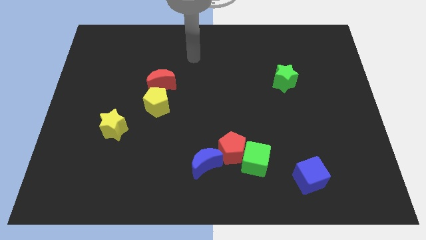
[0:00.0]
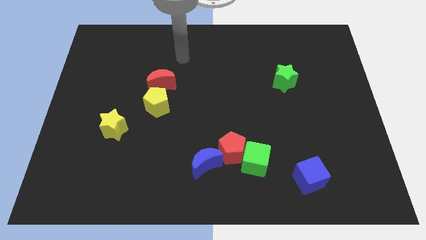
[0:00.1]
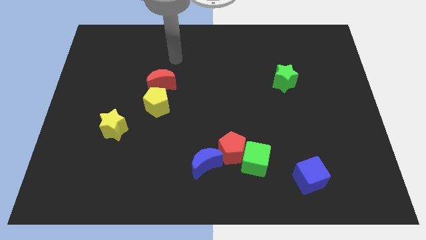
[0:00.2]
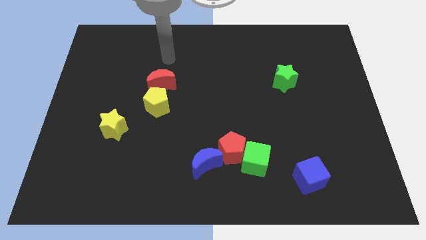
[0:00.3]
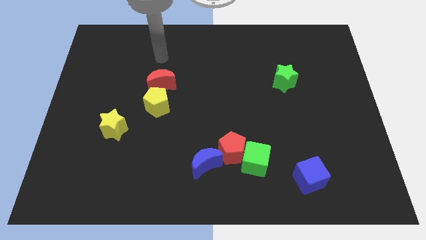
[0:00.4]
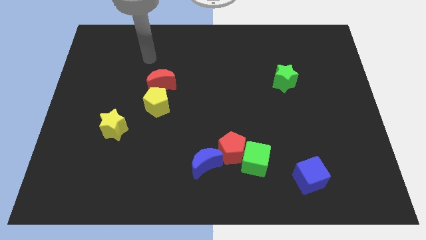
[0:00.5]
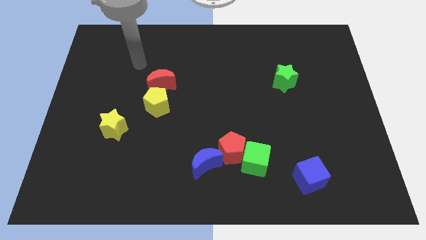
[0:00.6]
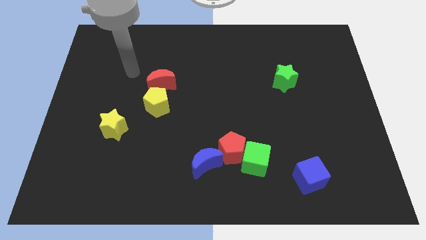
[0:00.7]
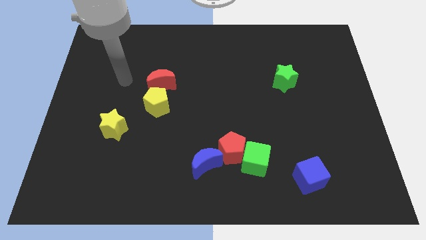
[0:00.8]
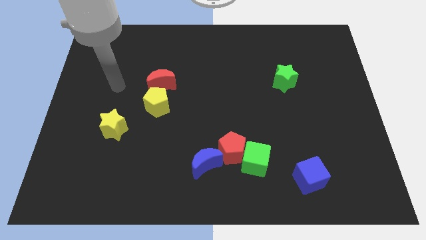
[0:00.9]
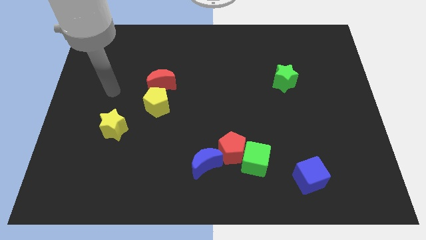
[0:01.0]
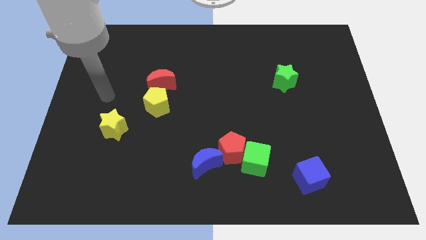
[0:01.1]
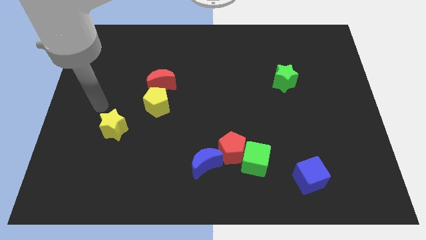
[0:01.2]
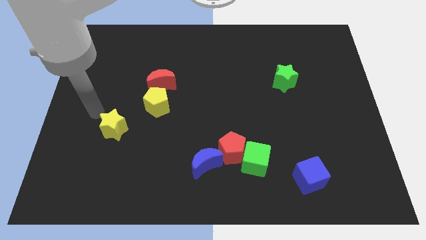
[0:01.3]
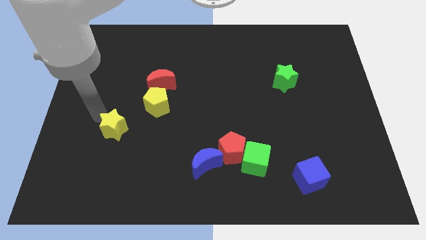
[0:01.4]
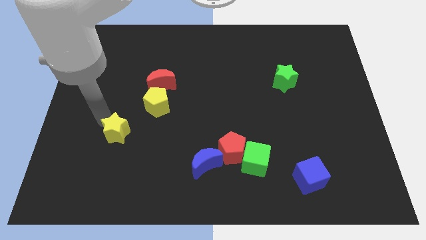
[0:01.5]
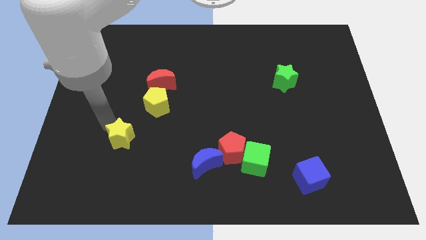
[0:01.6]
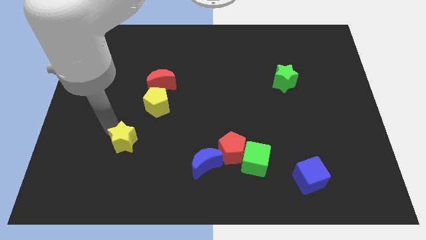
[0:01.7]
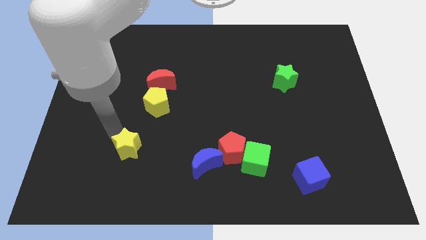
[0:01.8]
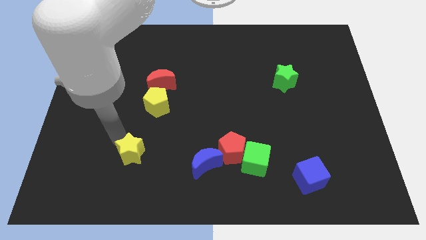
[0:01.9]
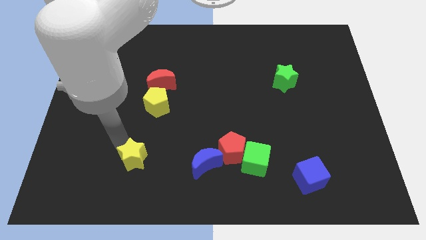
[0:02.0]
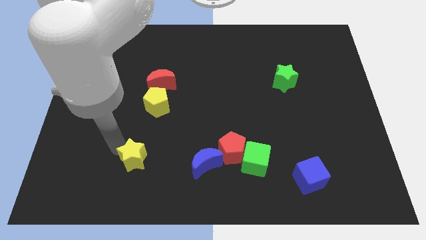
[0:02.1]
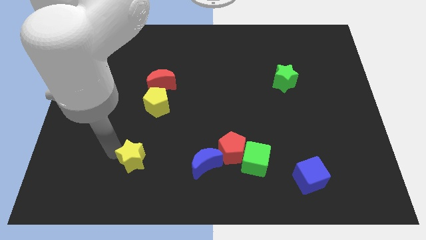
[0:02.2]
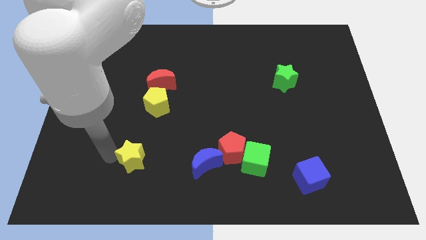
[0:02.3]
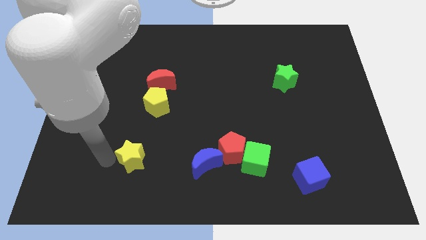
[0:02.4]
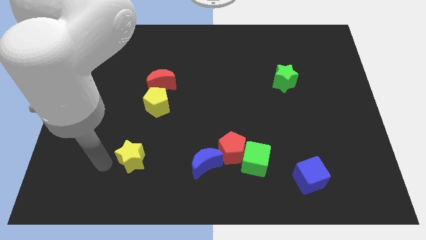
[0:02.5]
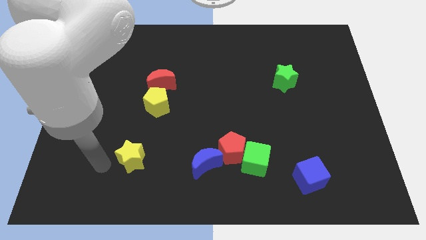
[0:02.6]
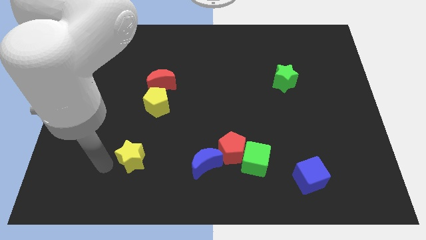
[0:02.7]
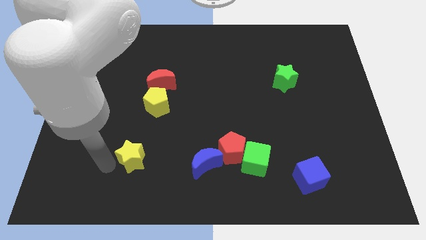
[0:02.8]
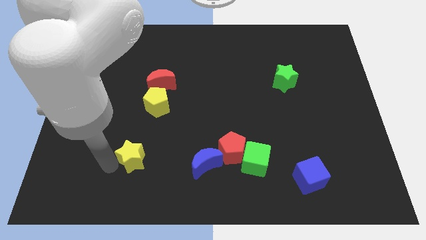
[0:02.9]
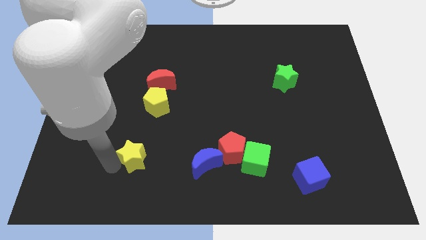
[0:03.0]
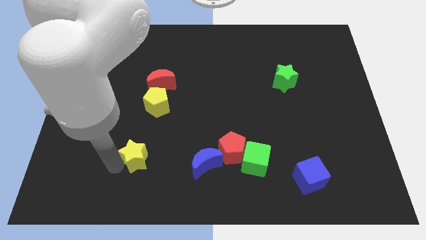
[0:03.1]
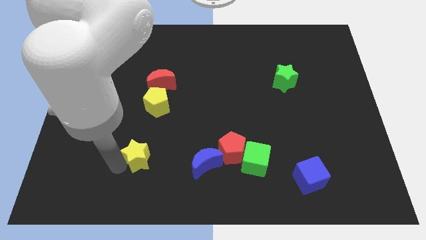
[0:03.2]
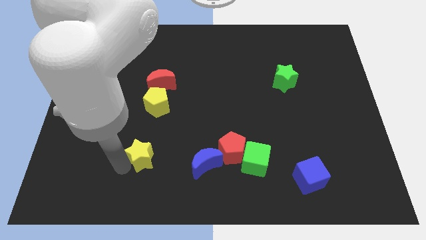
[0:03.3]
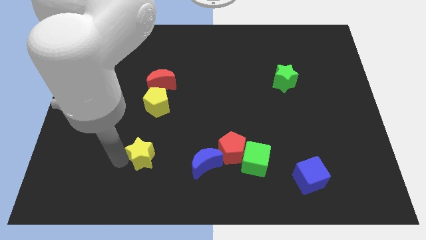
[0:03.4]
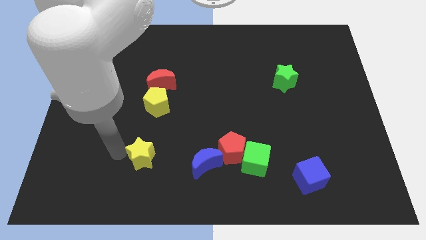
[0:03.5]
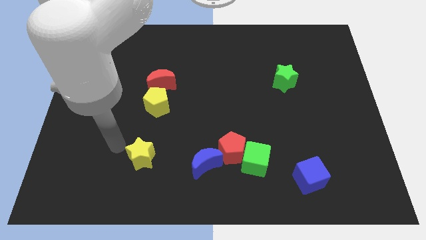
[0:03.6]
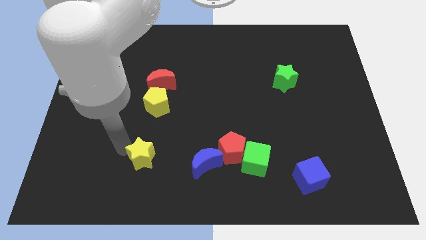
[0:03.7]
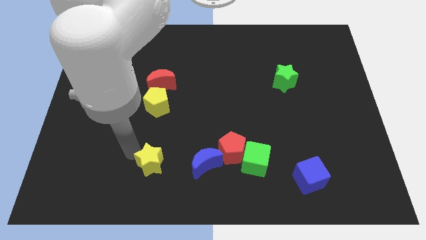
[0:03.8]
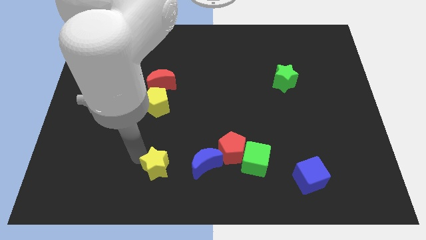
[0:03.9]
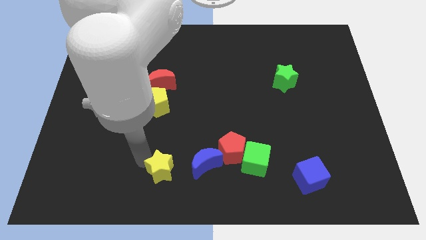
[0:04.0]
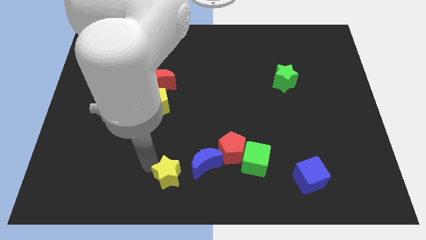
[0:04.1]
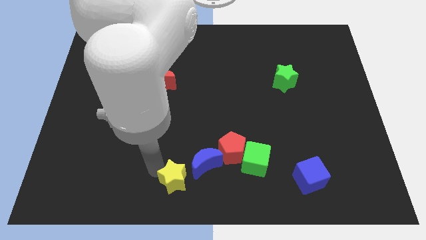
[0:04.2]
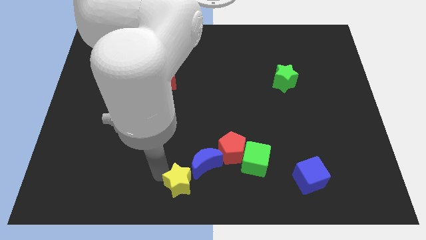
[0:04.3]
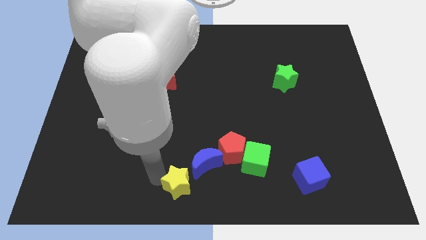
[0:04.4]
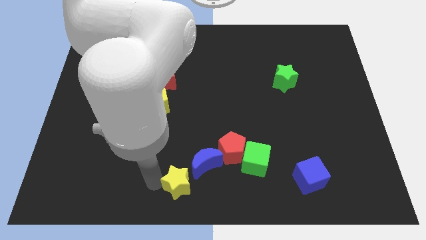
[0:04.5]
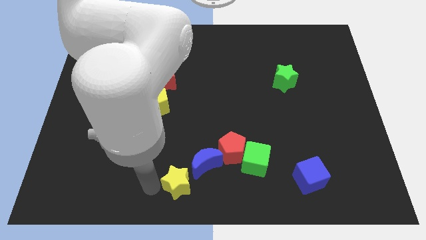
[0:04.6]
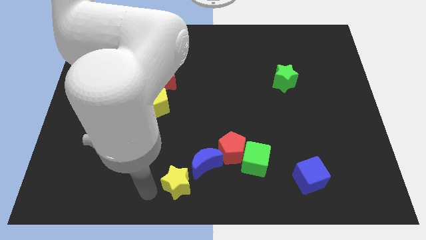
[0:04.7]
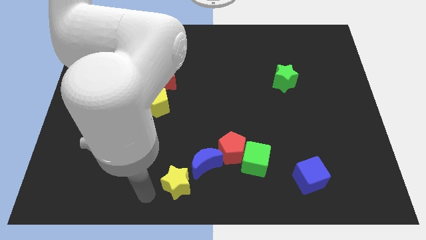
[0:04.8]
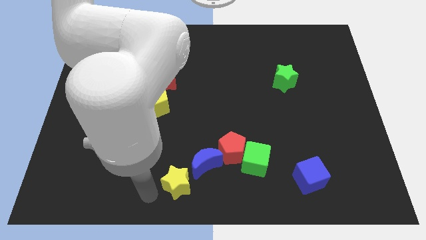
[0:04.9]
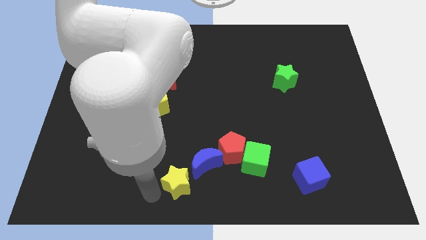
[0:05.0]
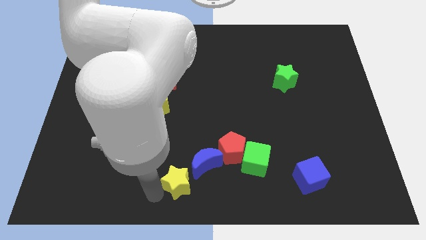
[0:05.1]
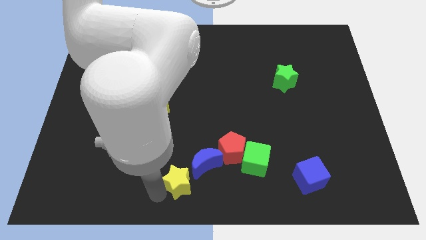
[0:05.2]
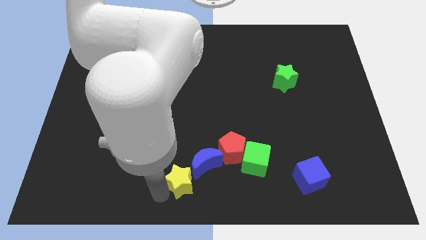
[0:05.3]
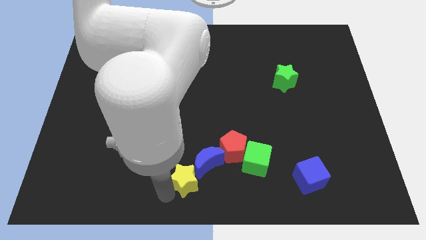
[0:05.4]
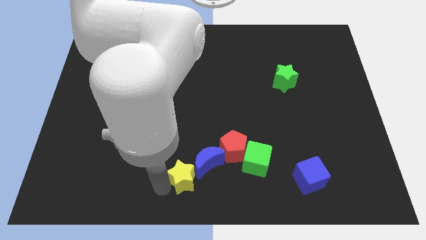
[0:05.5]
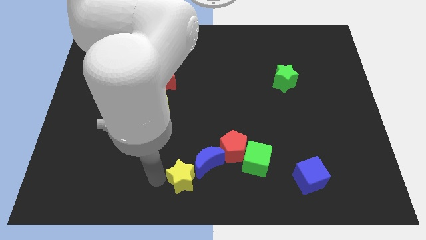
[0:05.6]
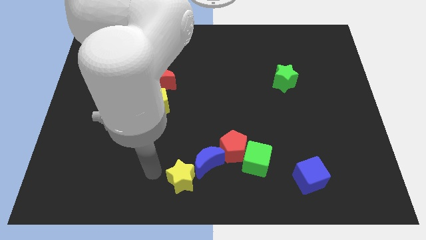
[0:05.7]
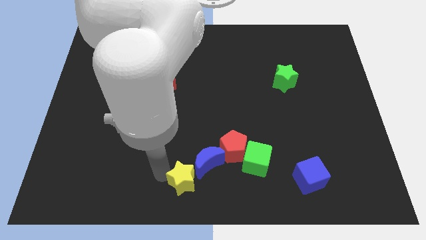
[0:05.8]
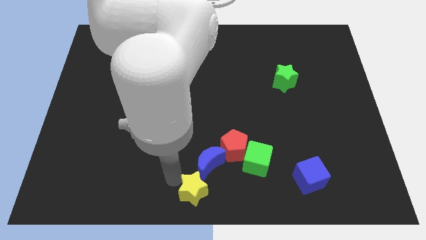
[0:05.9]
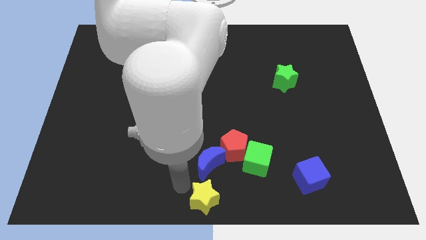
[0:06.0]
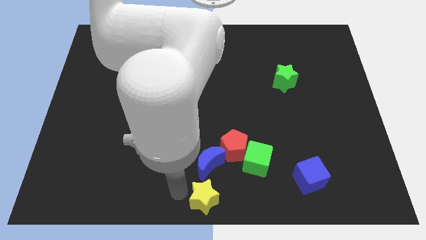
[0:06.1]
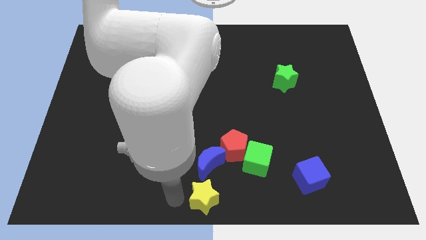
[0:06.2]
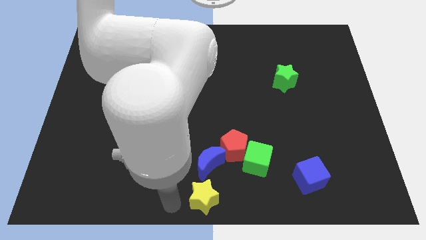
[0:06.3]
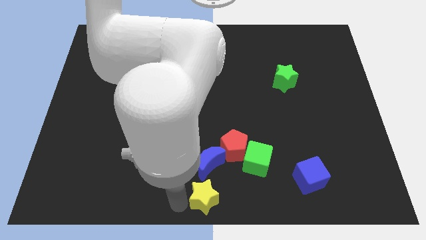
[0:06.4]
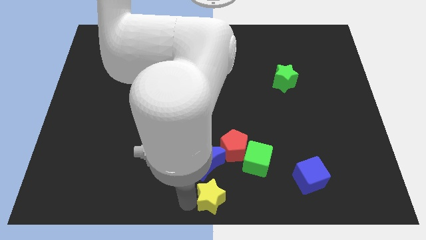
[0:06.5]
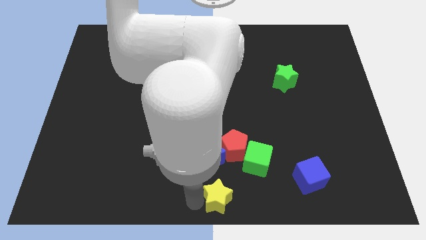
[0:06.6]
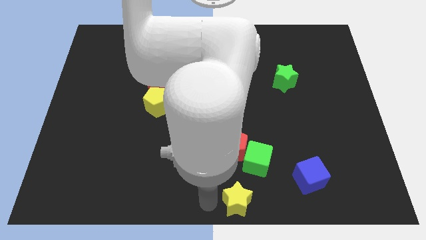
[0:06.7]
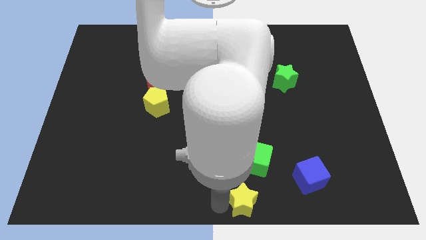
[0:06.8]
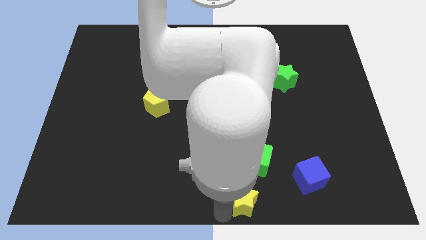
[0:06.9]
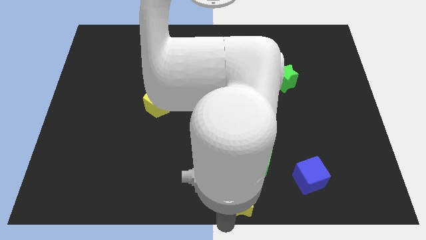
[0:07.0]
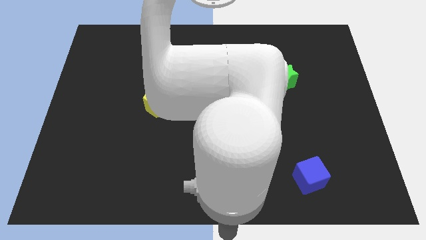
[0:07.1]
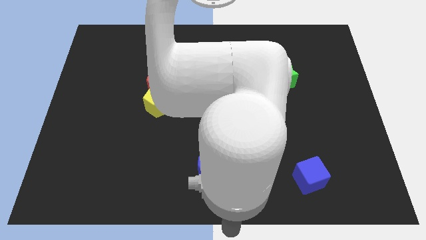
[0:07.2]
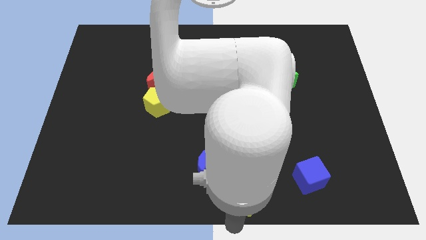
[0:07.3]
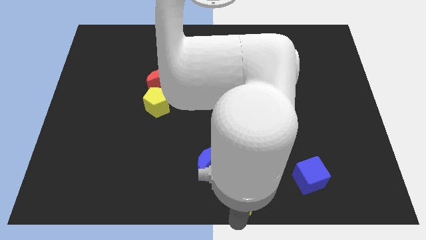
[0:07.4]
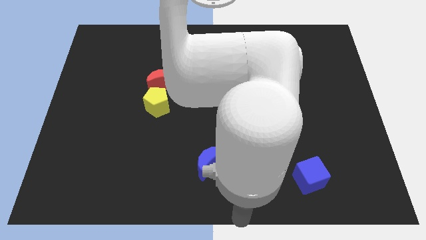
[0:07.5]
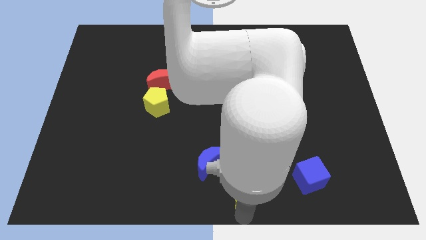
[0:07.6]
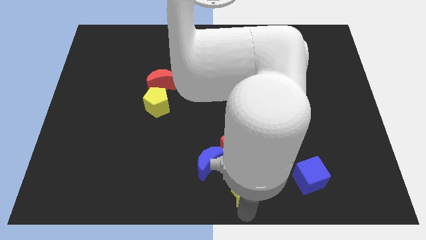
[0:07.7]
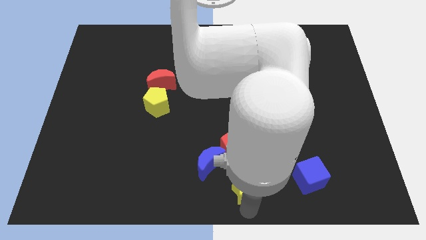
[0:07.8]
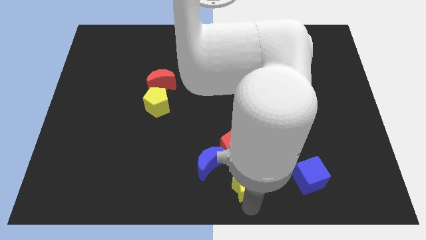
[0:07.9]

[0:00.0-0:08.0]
push the yellow star to the bottom right of the red pentagon

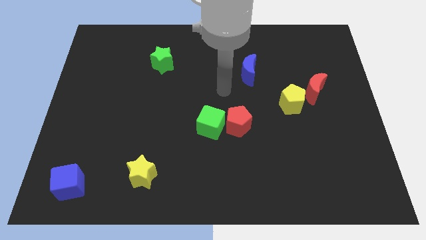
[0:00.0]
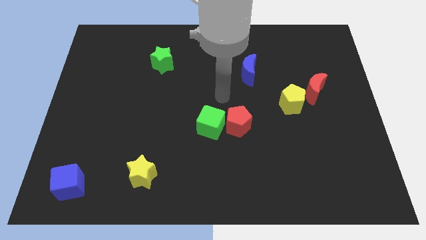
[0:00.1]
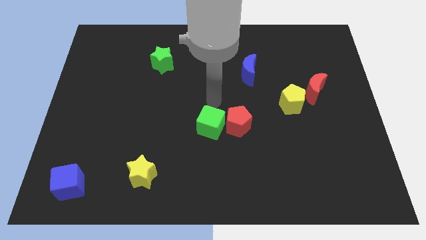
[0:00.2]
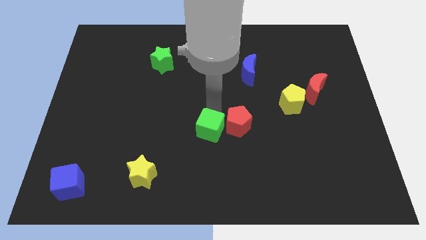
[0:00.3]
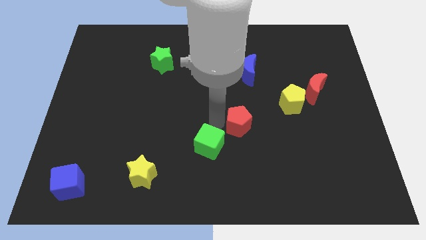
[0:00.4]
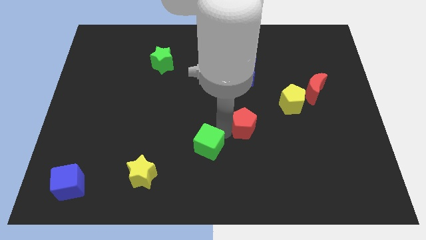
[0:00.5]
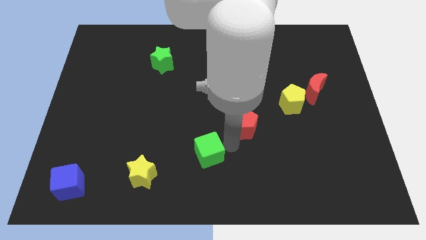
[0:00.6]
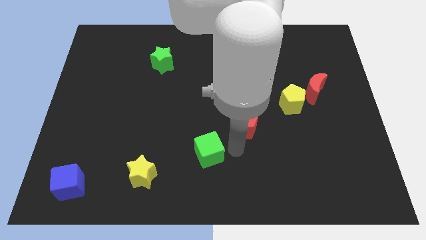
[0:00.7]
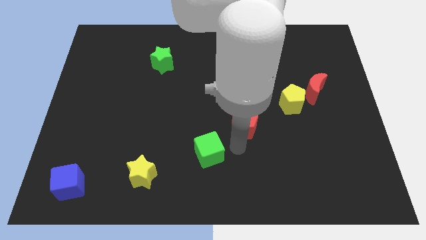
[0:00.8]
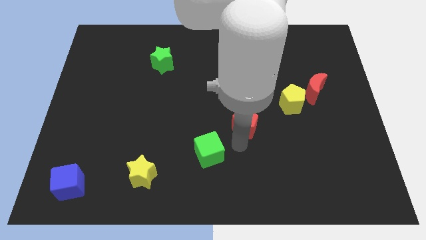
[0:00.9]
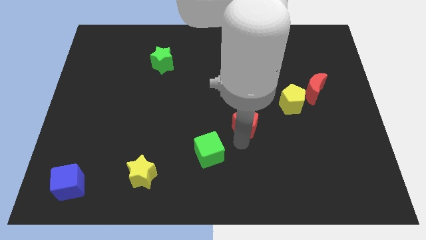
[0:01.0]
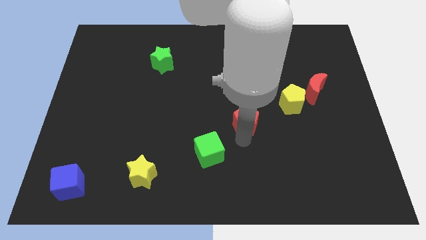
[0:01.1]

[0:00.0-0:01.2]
slide the red pentagon to the bottom side of the blue moon
